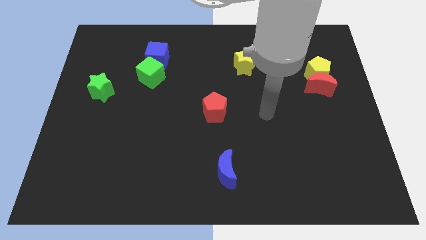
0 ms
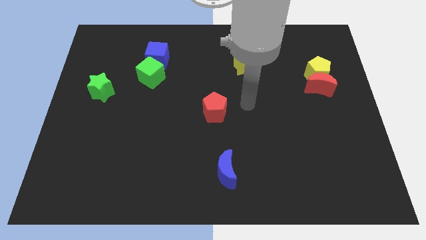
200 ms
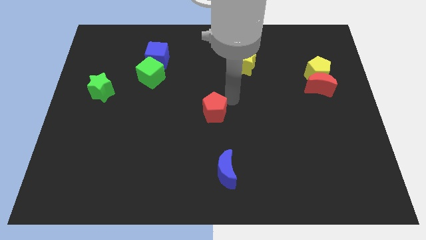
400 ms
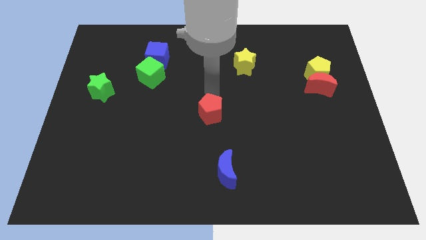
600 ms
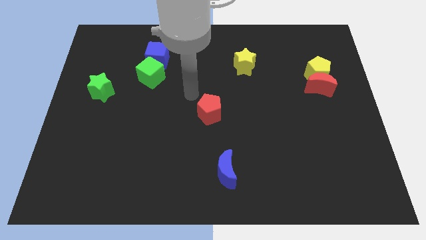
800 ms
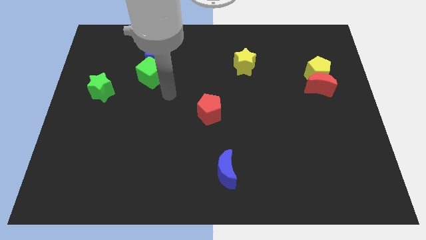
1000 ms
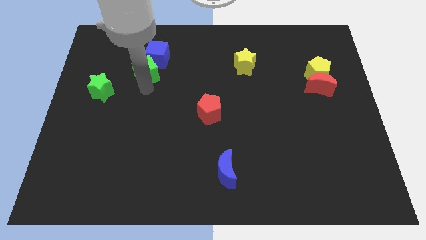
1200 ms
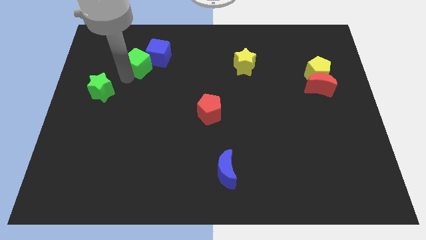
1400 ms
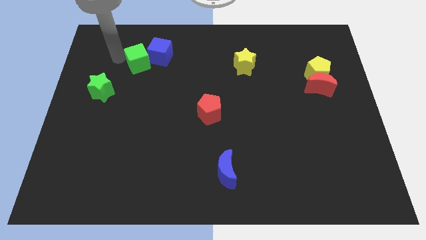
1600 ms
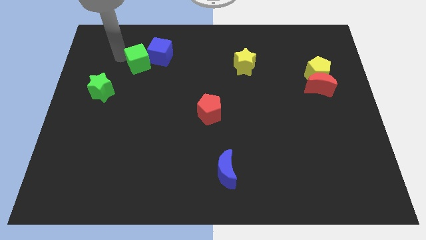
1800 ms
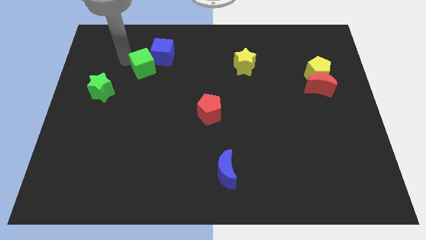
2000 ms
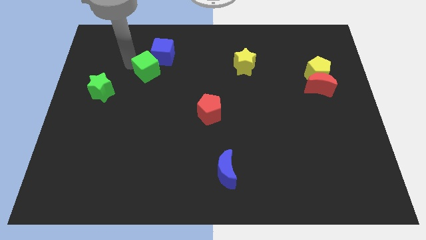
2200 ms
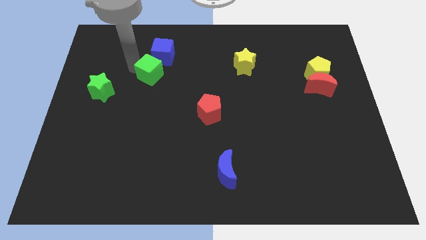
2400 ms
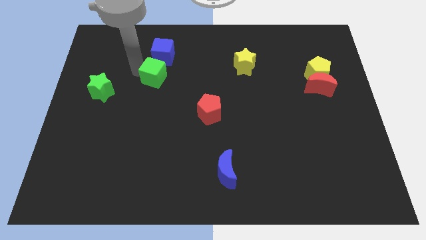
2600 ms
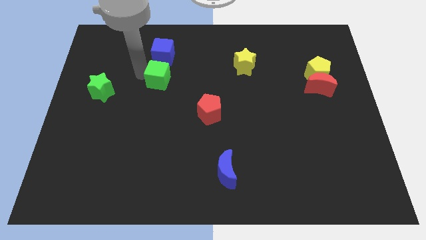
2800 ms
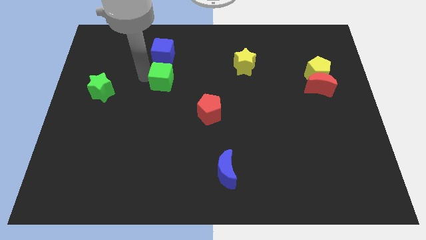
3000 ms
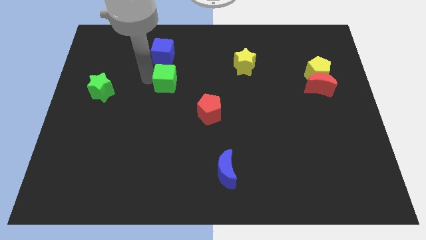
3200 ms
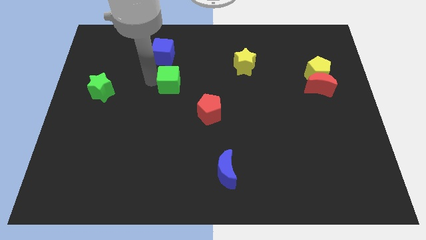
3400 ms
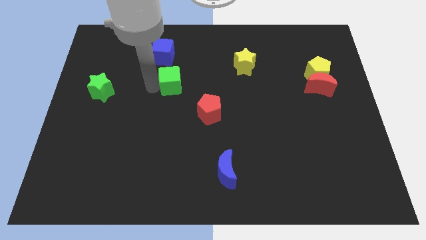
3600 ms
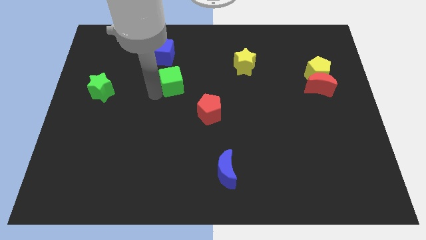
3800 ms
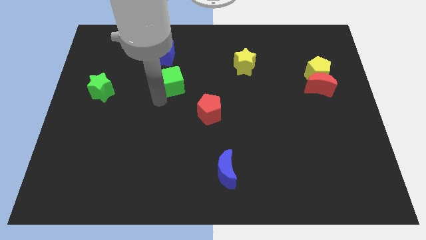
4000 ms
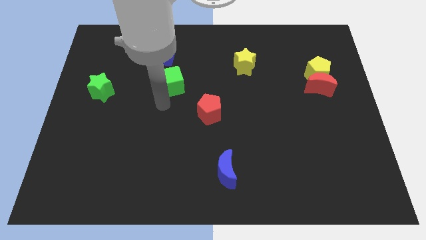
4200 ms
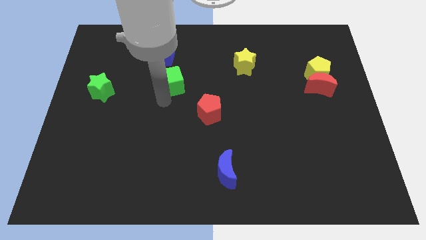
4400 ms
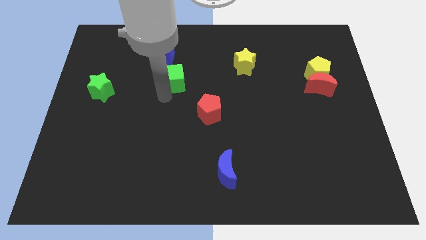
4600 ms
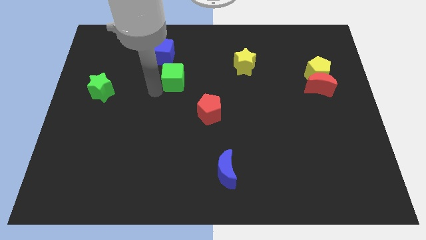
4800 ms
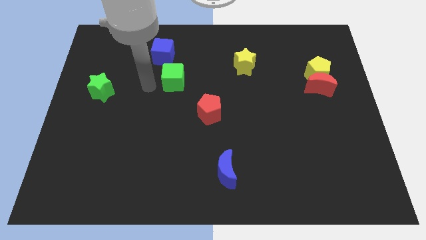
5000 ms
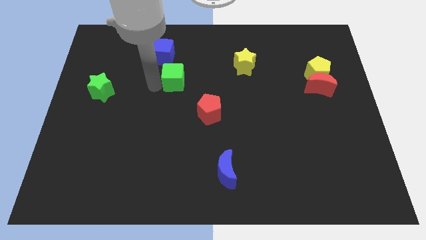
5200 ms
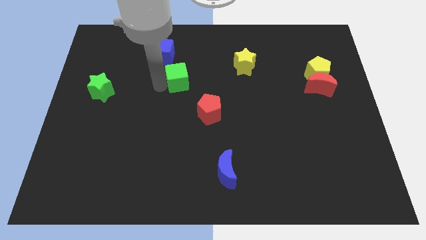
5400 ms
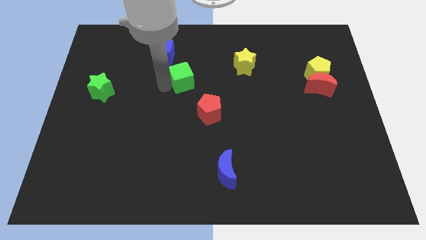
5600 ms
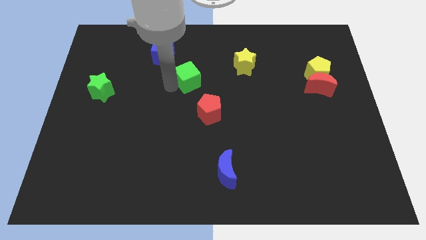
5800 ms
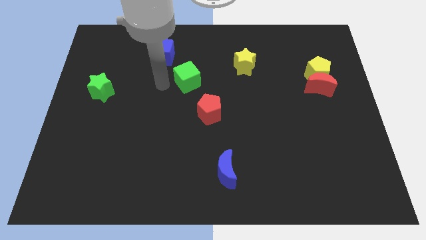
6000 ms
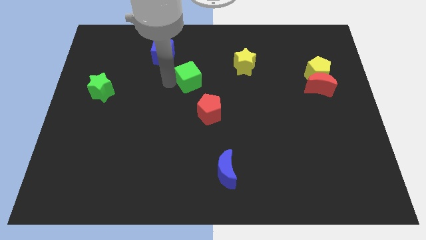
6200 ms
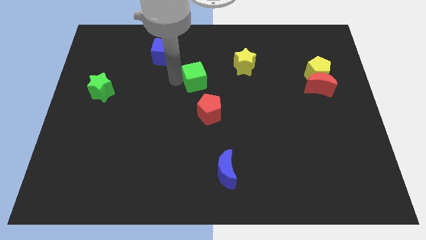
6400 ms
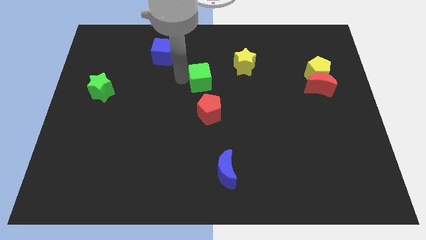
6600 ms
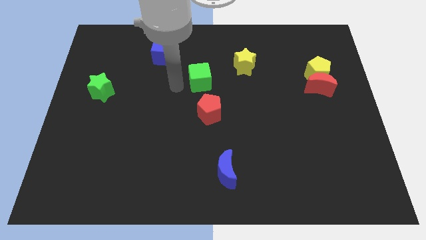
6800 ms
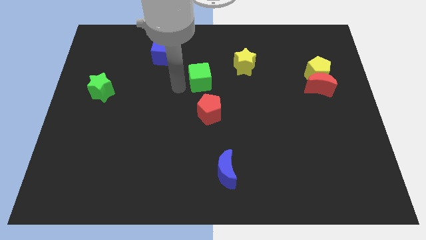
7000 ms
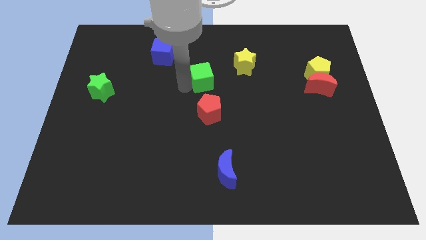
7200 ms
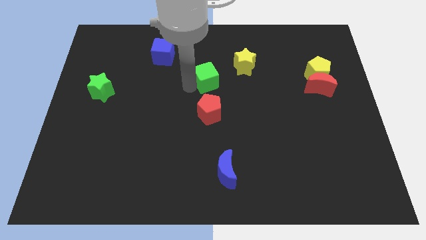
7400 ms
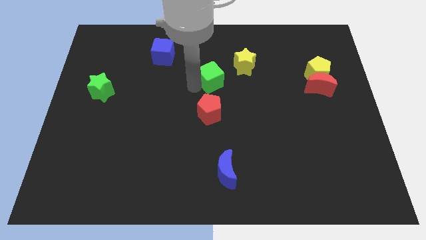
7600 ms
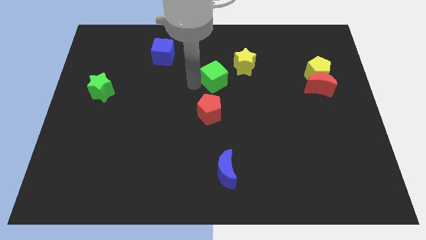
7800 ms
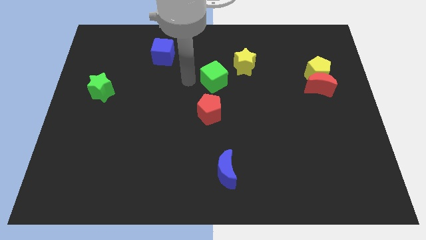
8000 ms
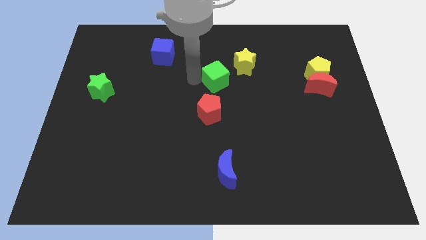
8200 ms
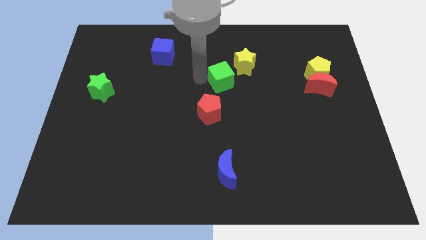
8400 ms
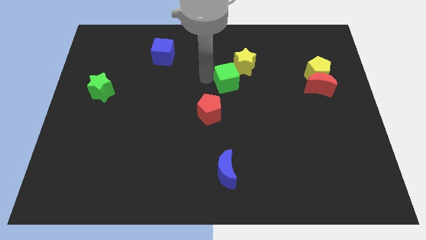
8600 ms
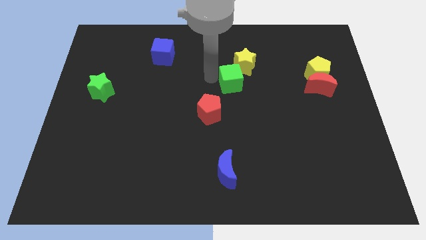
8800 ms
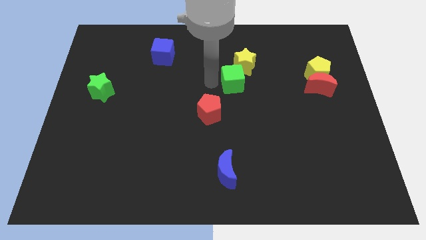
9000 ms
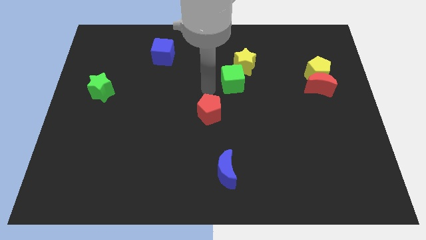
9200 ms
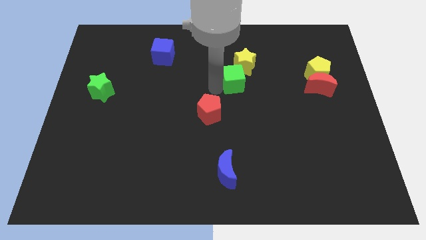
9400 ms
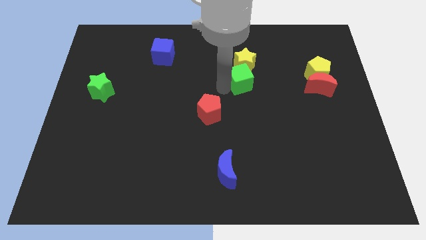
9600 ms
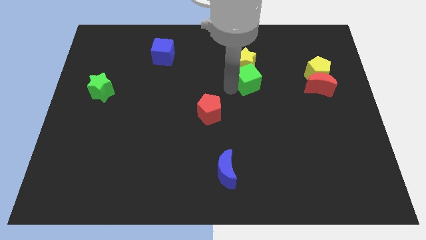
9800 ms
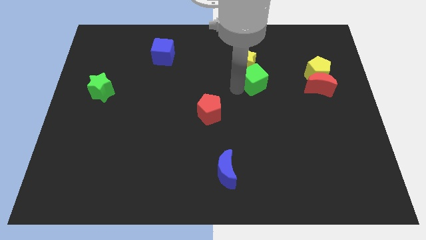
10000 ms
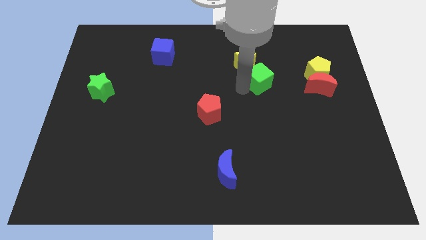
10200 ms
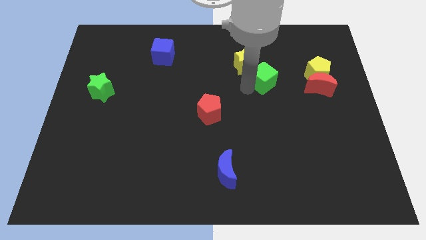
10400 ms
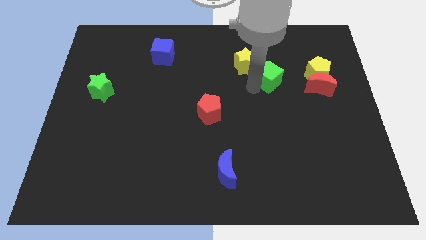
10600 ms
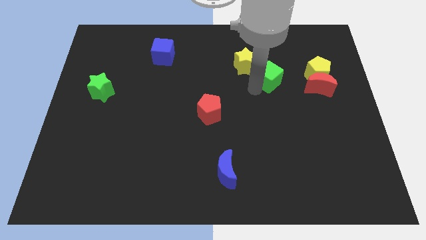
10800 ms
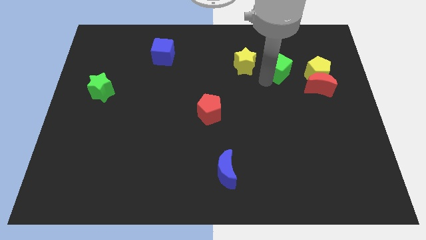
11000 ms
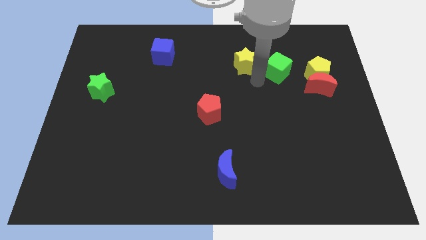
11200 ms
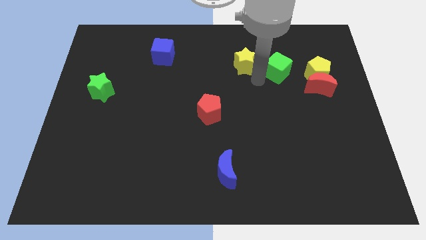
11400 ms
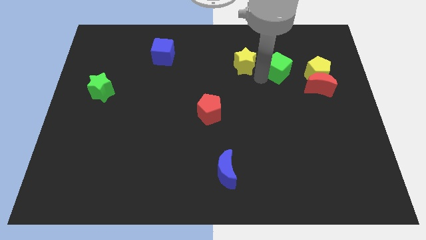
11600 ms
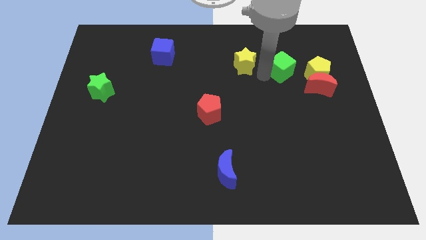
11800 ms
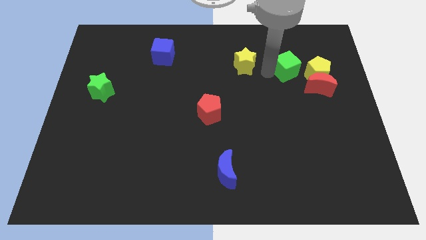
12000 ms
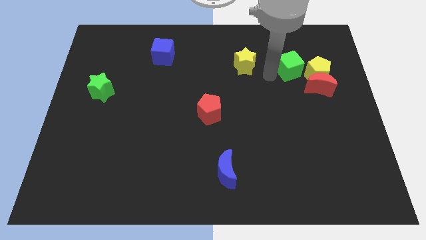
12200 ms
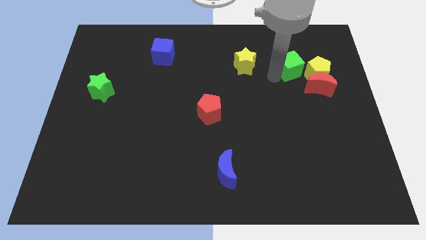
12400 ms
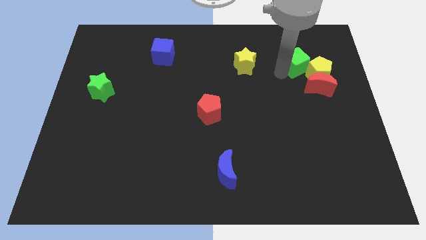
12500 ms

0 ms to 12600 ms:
slide the green cube above the red moon
